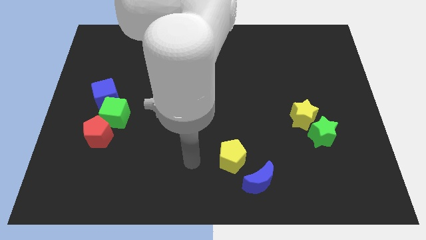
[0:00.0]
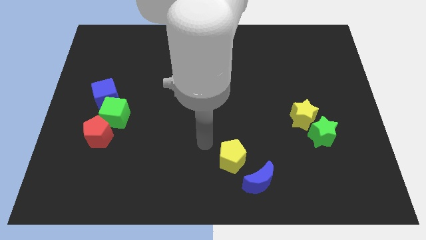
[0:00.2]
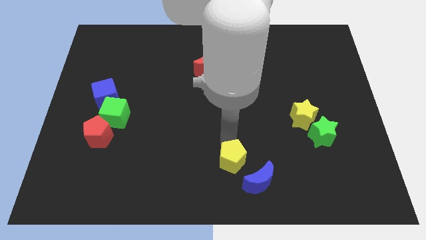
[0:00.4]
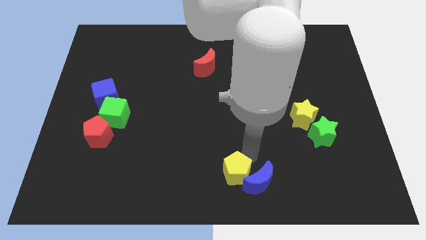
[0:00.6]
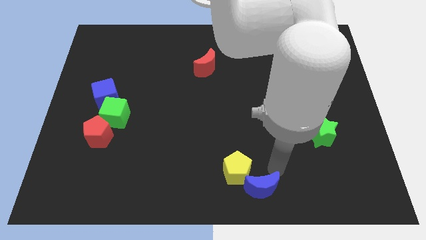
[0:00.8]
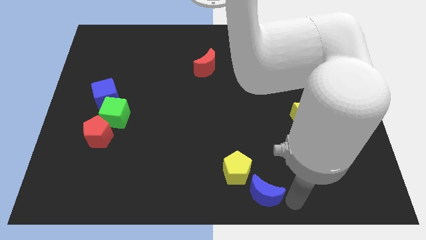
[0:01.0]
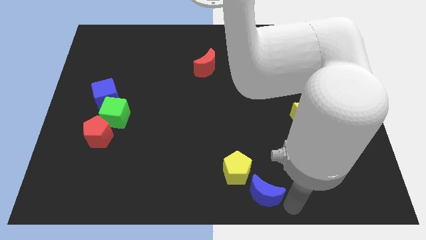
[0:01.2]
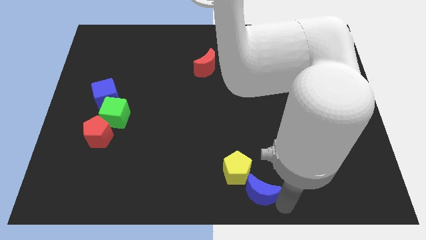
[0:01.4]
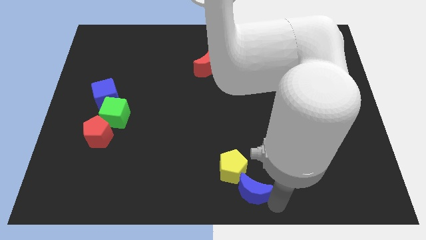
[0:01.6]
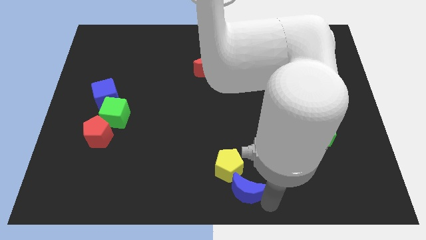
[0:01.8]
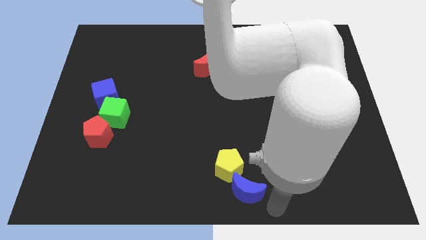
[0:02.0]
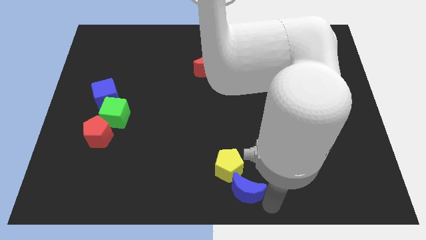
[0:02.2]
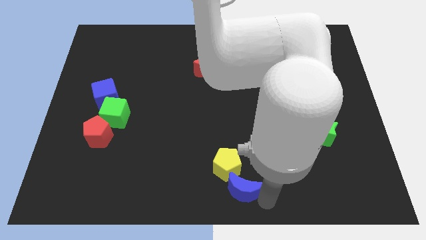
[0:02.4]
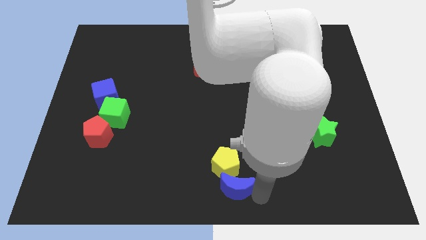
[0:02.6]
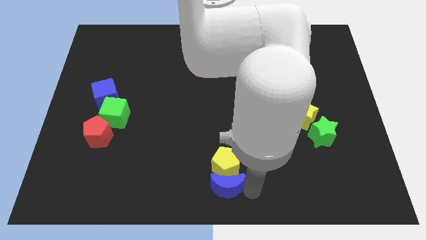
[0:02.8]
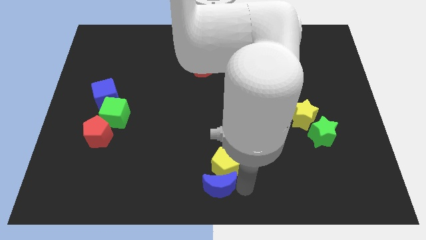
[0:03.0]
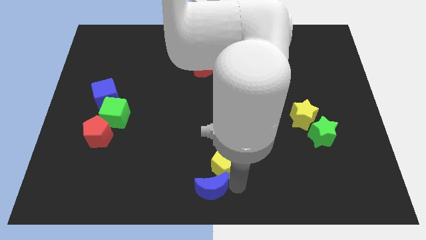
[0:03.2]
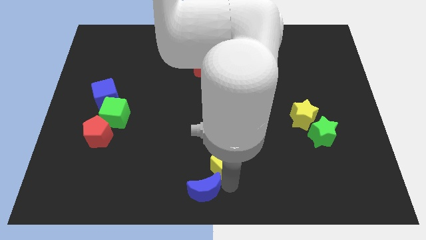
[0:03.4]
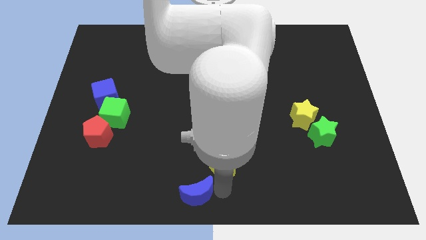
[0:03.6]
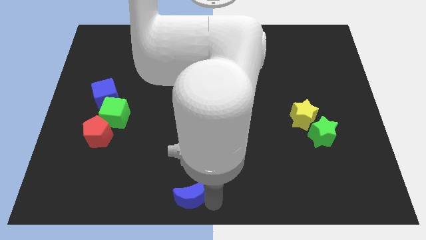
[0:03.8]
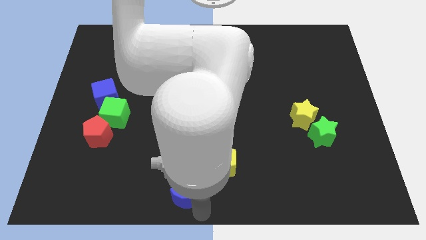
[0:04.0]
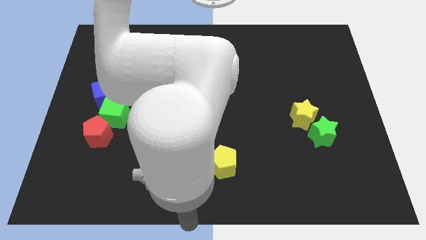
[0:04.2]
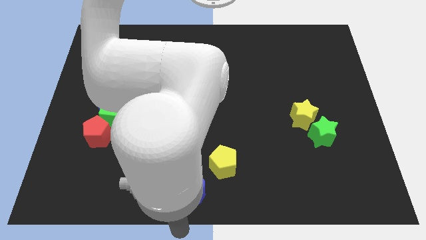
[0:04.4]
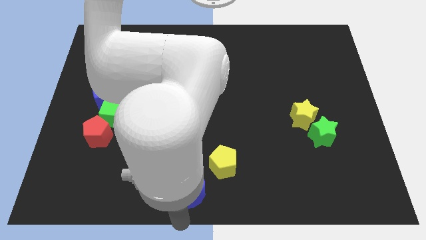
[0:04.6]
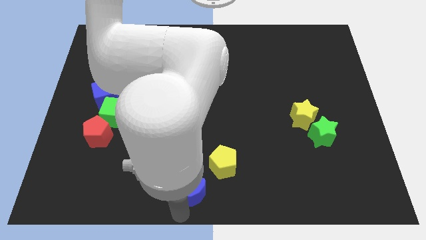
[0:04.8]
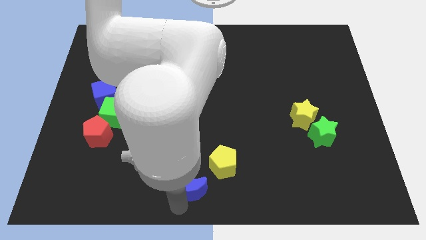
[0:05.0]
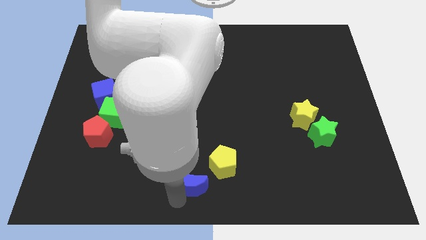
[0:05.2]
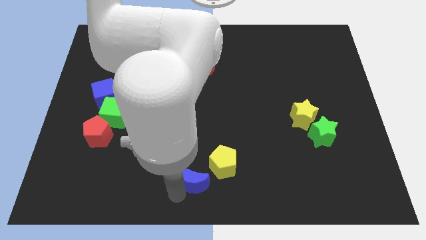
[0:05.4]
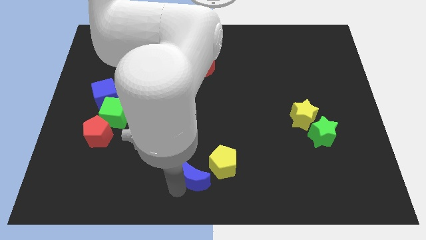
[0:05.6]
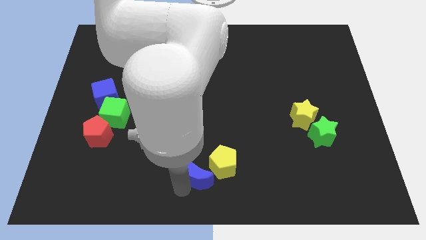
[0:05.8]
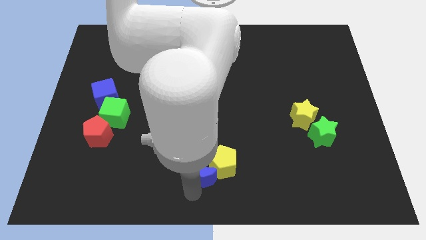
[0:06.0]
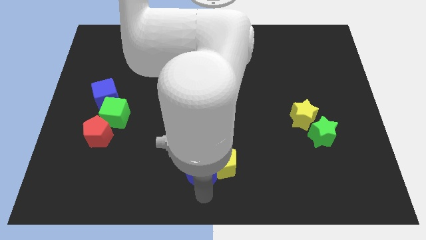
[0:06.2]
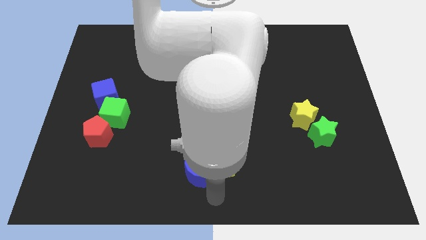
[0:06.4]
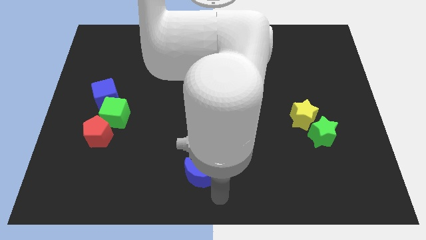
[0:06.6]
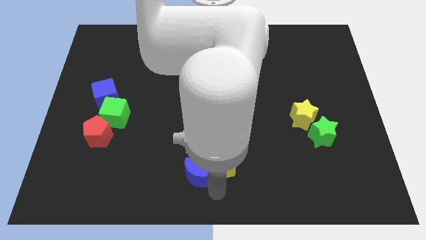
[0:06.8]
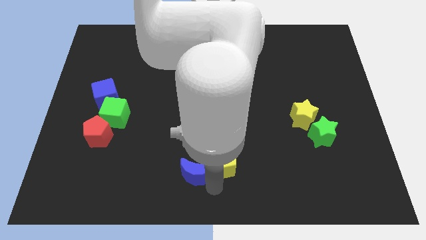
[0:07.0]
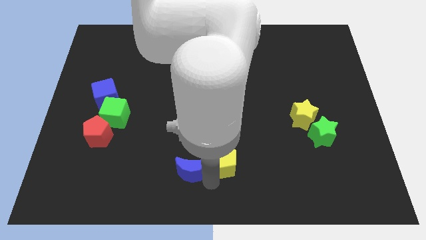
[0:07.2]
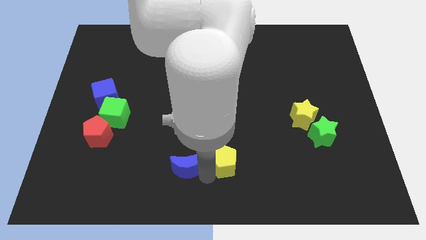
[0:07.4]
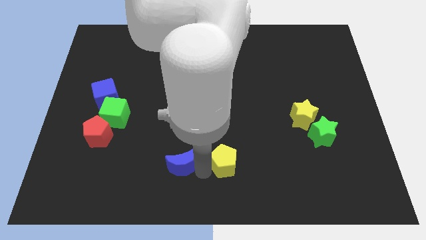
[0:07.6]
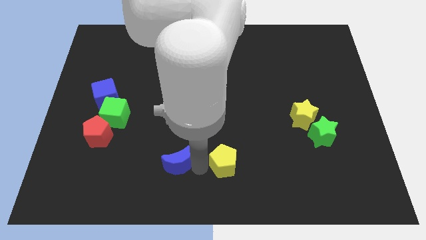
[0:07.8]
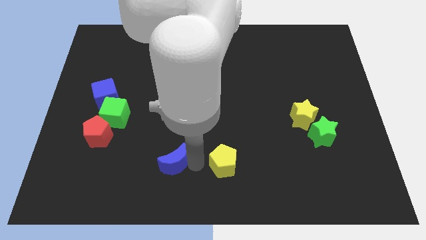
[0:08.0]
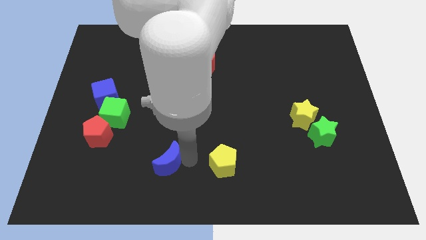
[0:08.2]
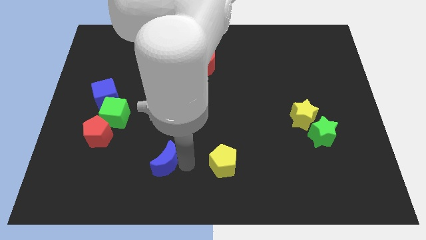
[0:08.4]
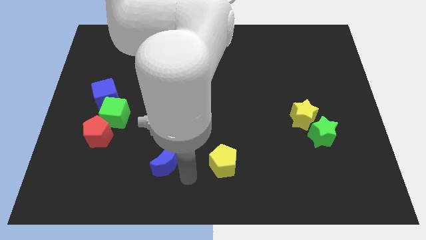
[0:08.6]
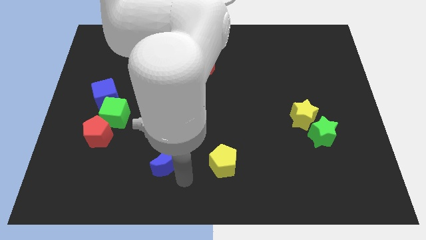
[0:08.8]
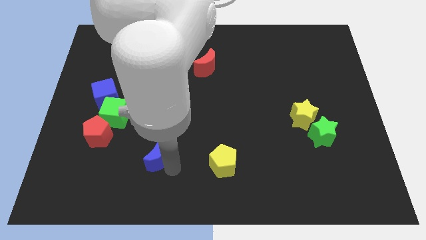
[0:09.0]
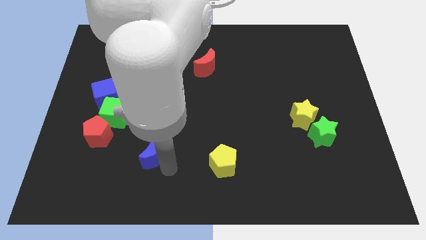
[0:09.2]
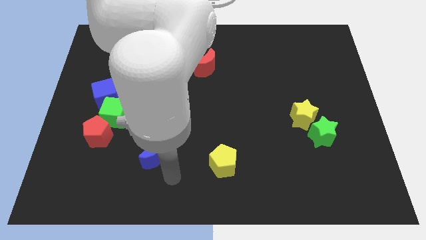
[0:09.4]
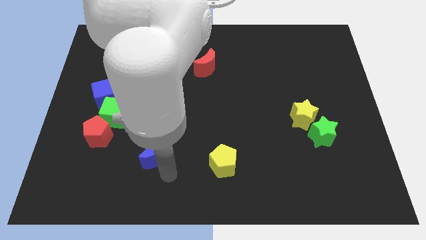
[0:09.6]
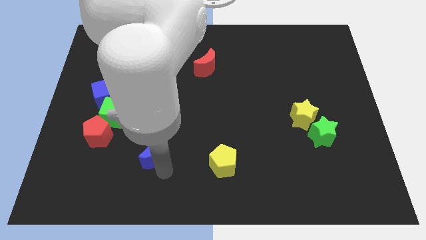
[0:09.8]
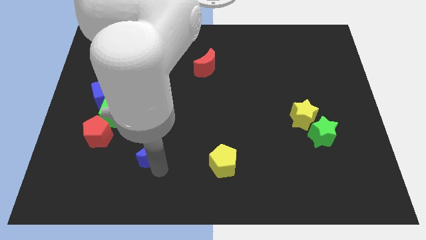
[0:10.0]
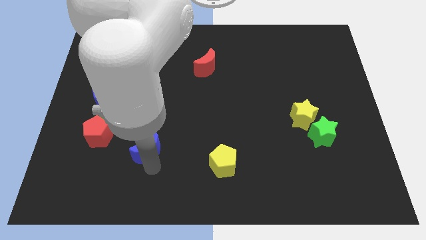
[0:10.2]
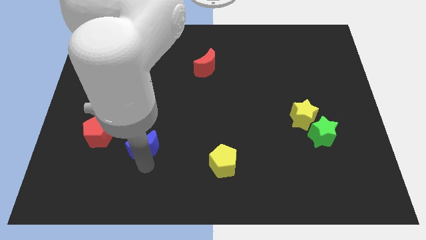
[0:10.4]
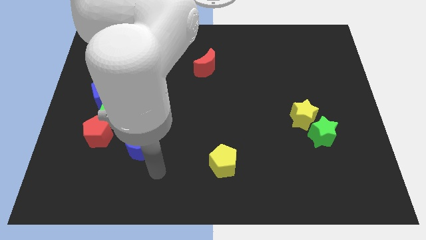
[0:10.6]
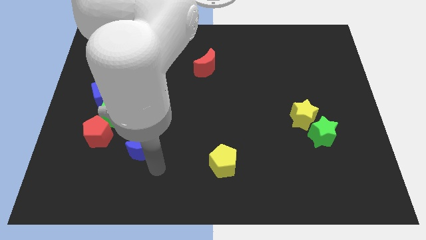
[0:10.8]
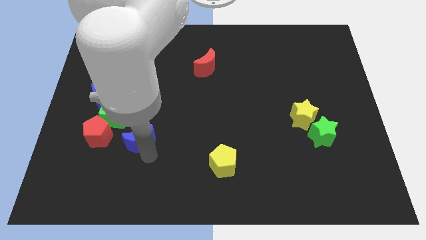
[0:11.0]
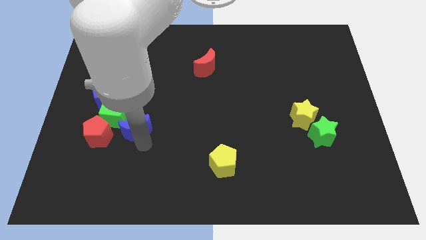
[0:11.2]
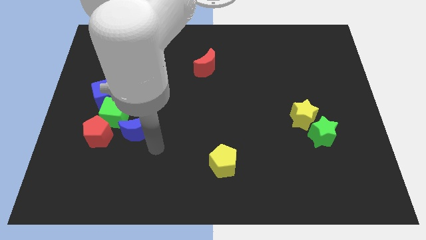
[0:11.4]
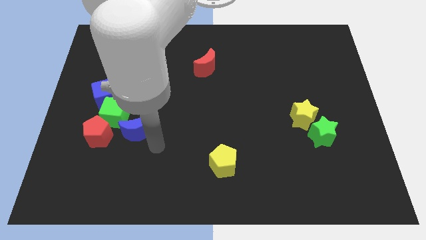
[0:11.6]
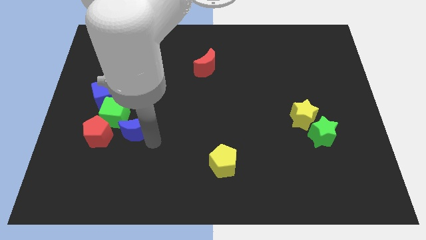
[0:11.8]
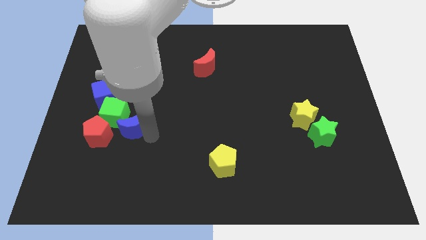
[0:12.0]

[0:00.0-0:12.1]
put the blue moon close to the green cube

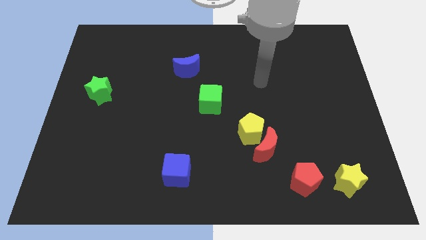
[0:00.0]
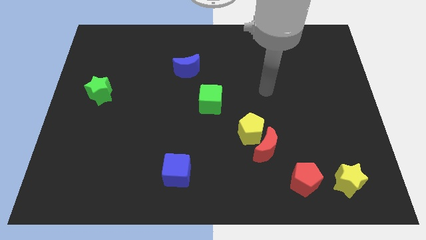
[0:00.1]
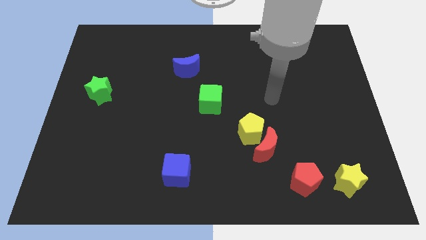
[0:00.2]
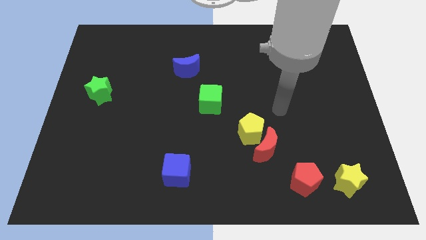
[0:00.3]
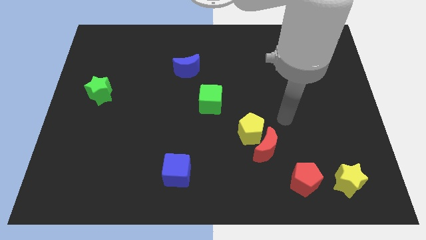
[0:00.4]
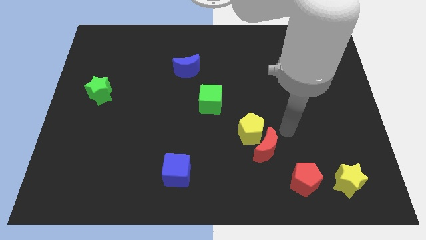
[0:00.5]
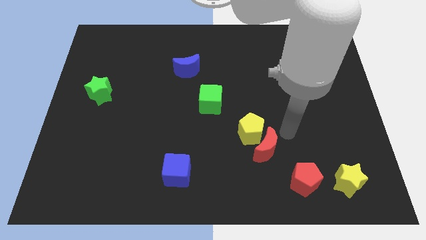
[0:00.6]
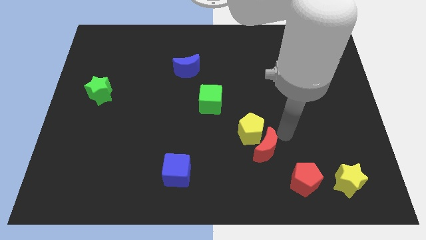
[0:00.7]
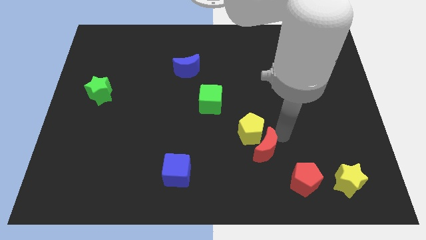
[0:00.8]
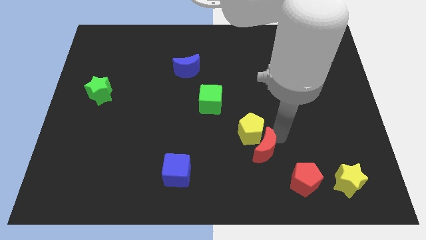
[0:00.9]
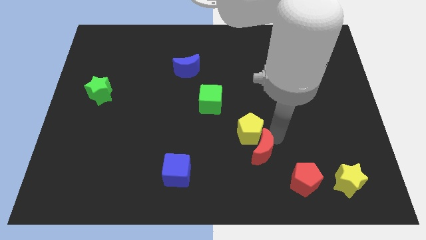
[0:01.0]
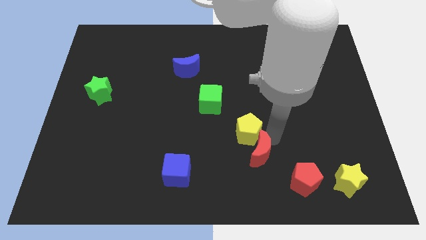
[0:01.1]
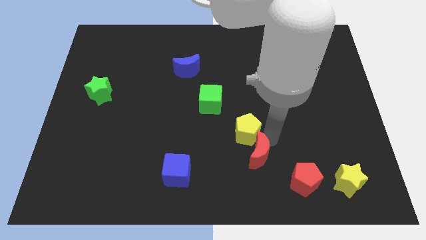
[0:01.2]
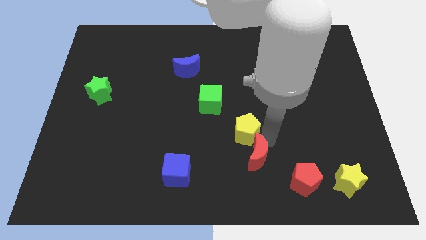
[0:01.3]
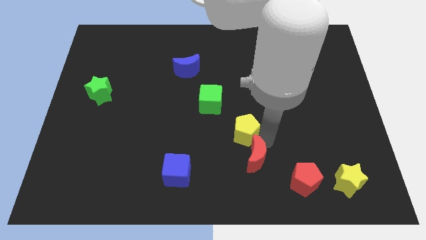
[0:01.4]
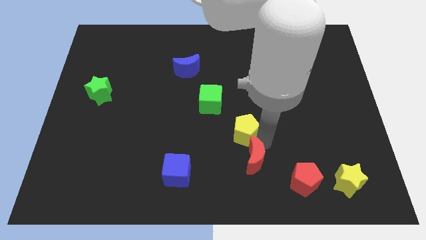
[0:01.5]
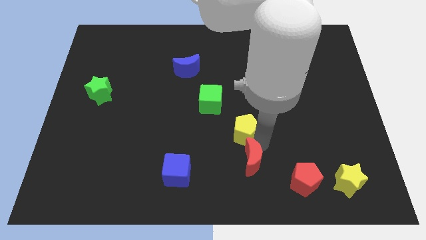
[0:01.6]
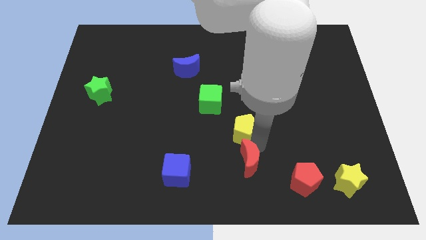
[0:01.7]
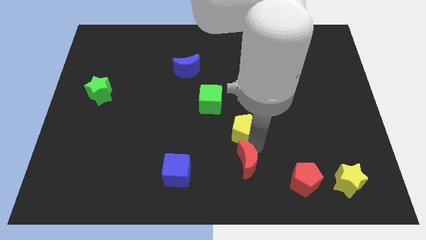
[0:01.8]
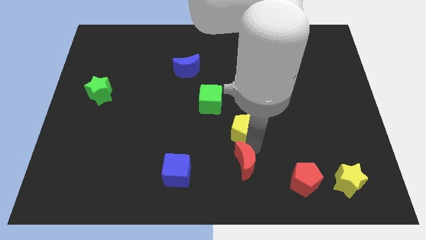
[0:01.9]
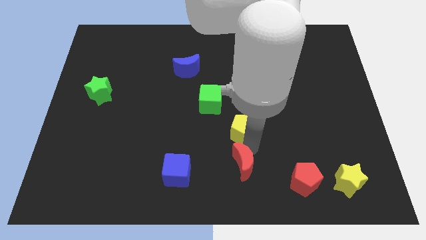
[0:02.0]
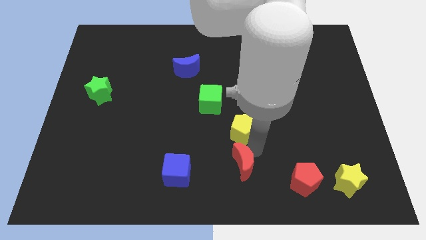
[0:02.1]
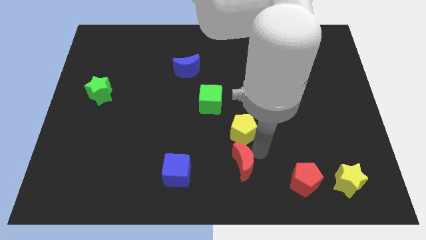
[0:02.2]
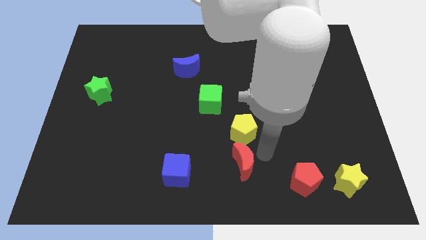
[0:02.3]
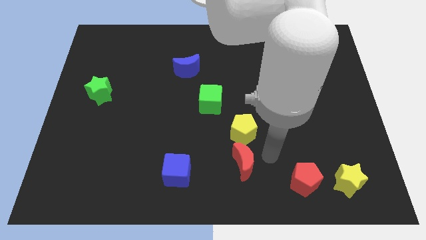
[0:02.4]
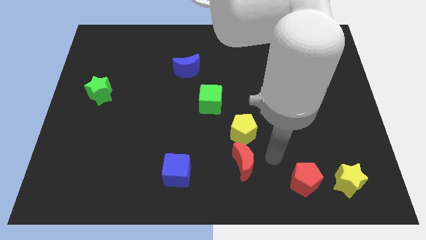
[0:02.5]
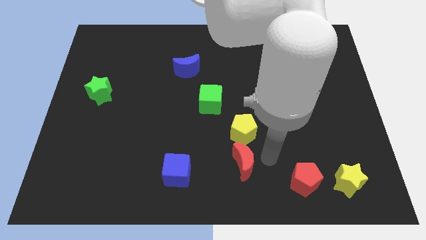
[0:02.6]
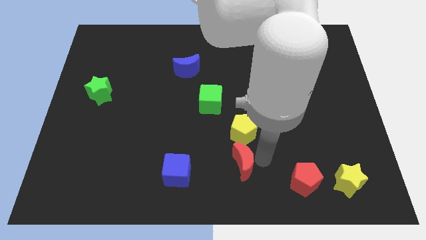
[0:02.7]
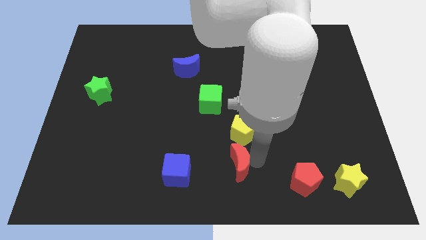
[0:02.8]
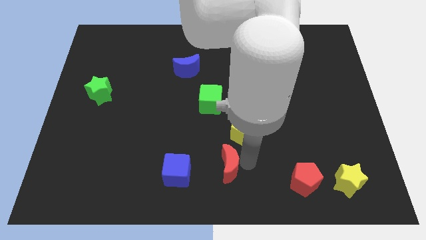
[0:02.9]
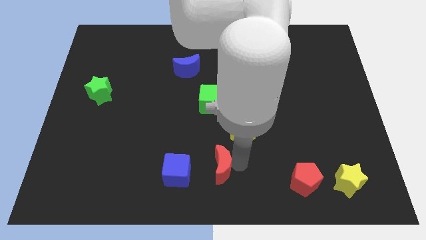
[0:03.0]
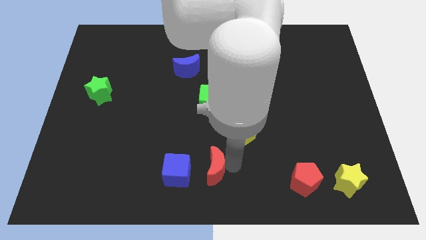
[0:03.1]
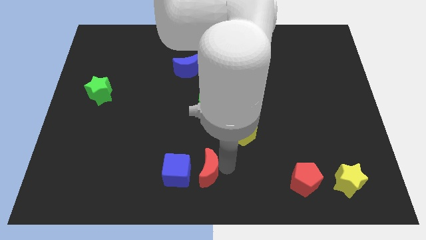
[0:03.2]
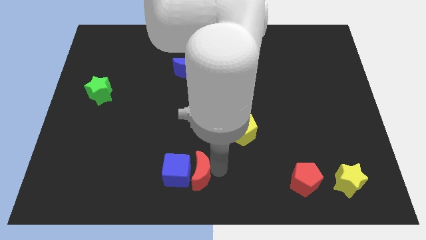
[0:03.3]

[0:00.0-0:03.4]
move the red moon next to the blue cube
